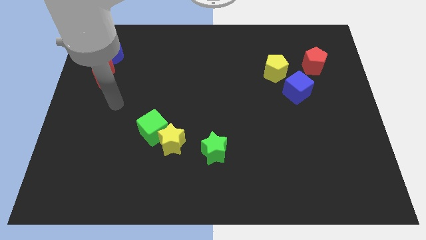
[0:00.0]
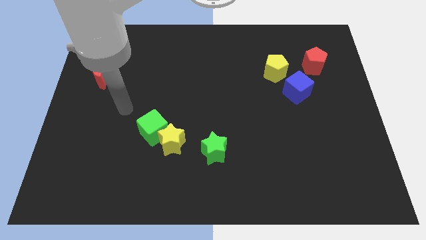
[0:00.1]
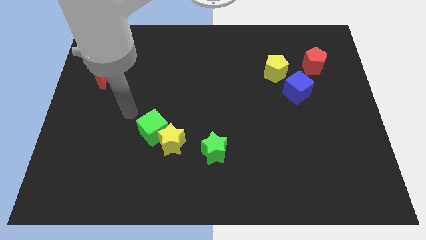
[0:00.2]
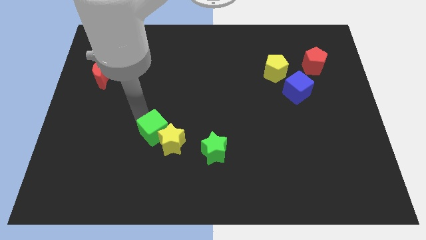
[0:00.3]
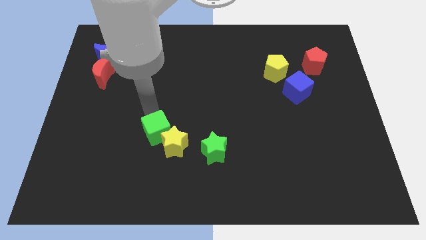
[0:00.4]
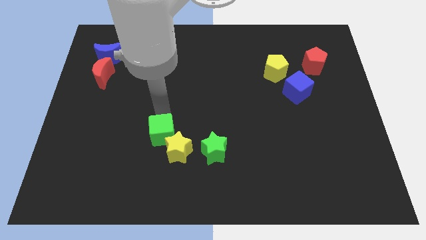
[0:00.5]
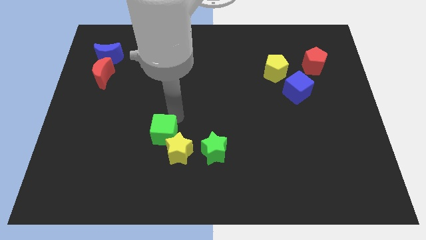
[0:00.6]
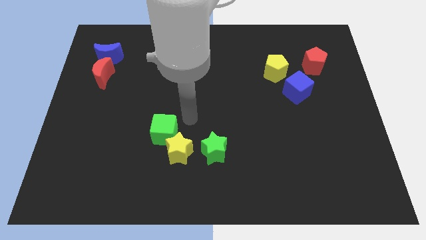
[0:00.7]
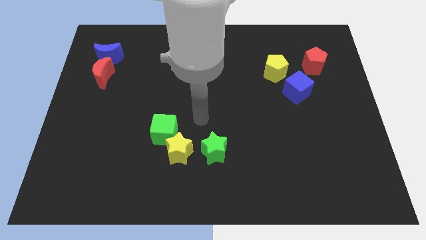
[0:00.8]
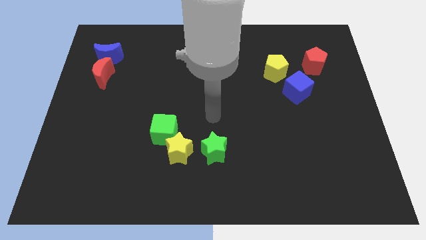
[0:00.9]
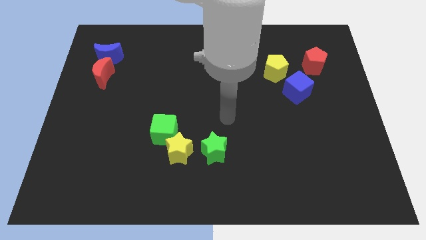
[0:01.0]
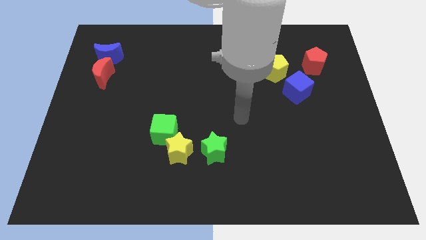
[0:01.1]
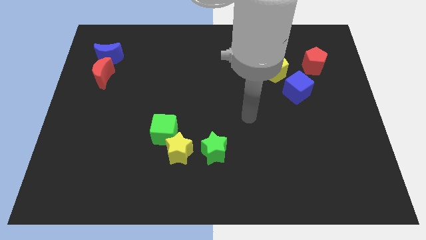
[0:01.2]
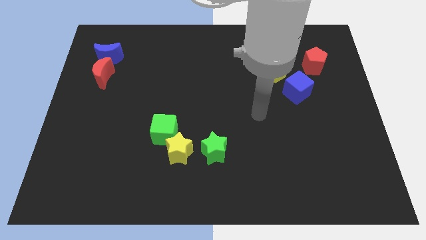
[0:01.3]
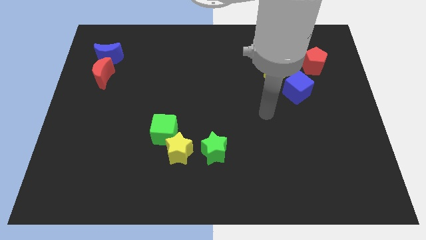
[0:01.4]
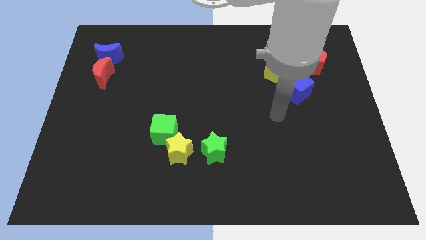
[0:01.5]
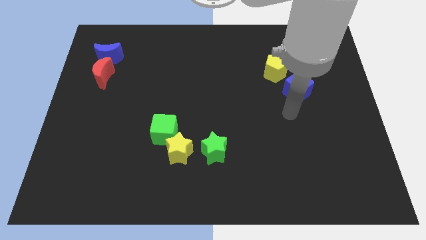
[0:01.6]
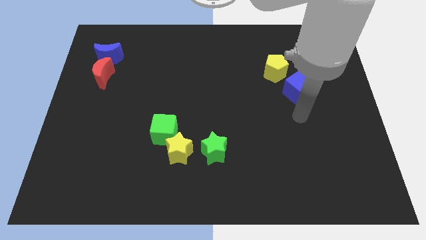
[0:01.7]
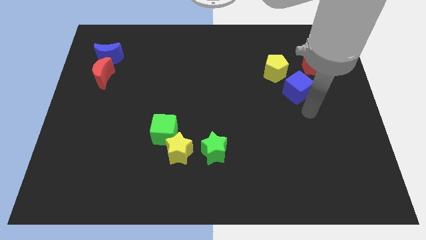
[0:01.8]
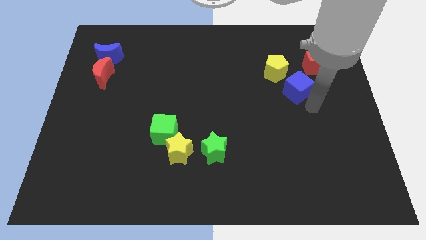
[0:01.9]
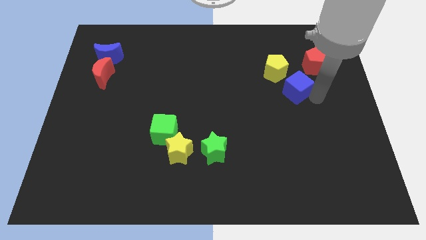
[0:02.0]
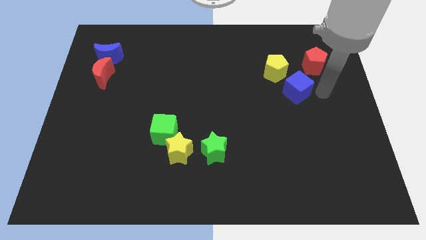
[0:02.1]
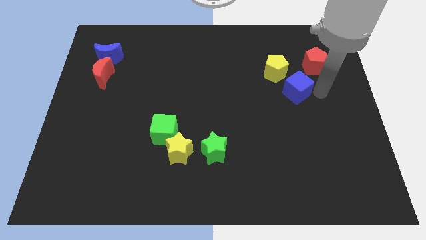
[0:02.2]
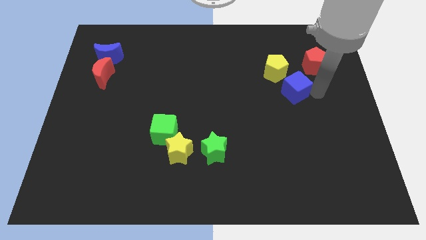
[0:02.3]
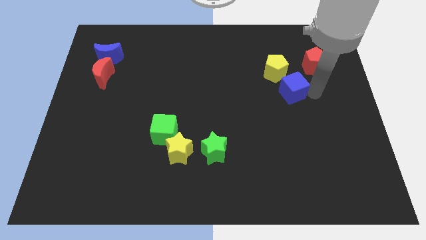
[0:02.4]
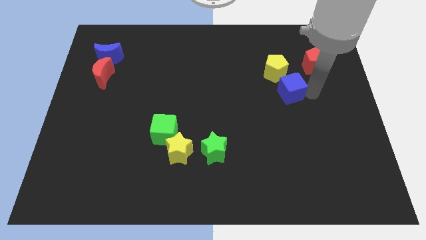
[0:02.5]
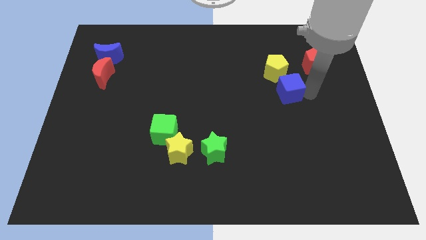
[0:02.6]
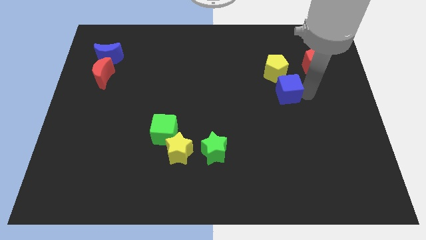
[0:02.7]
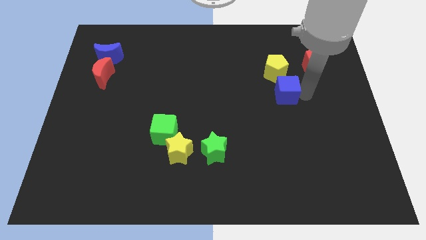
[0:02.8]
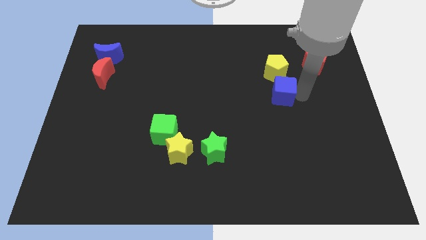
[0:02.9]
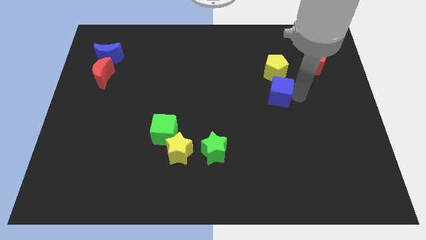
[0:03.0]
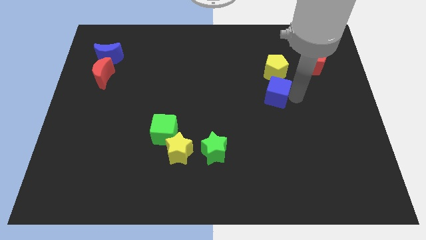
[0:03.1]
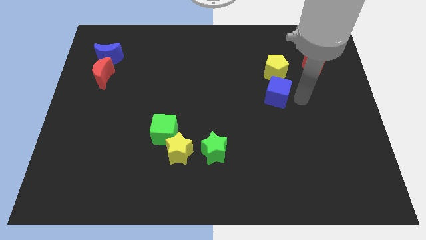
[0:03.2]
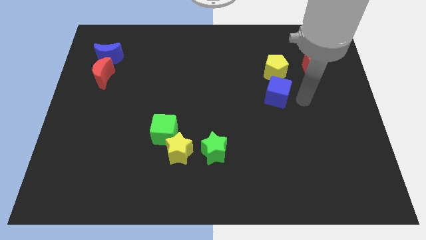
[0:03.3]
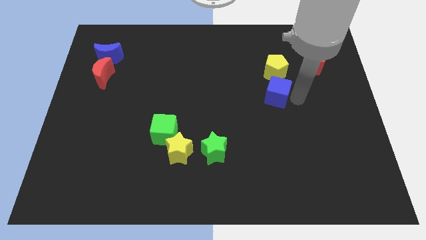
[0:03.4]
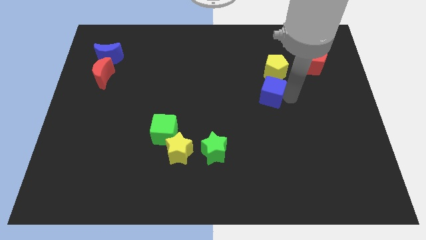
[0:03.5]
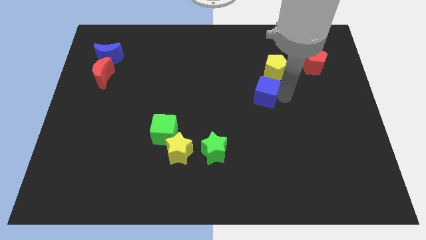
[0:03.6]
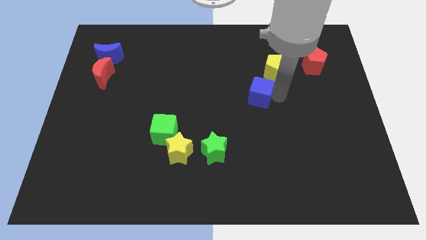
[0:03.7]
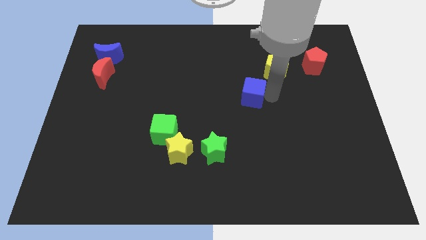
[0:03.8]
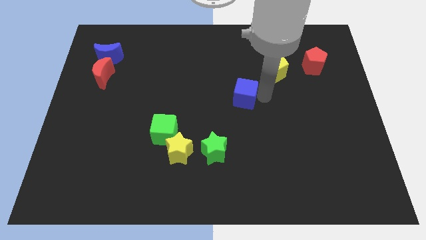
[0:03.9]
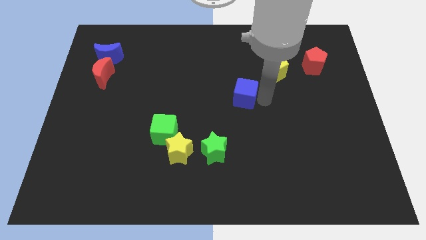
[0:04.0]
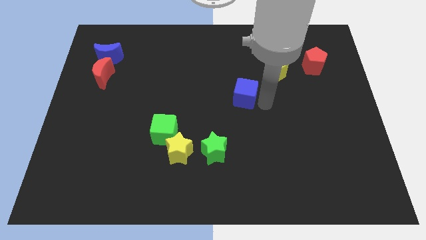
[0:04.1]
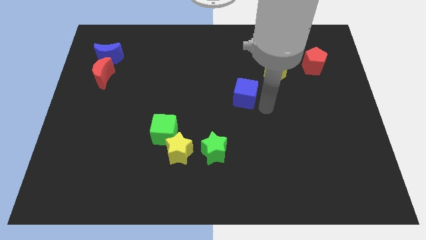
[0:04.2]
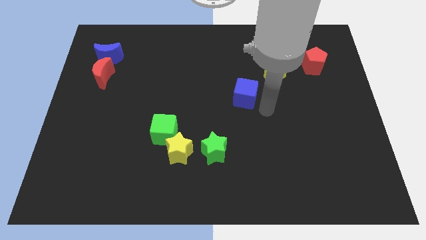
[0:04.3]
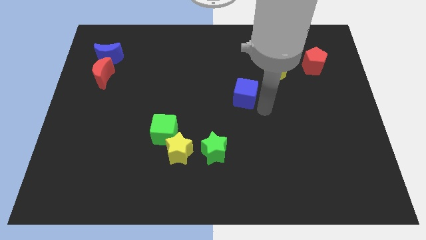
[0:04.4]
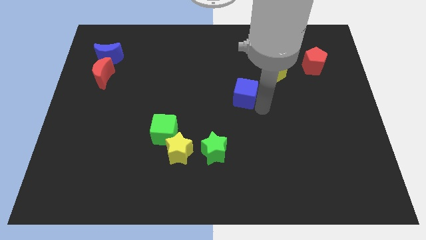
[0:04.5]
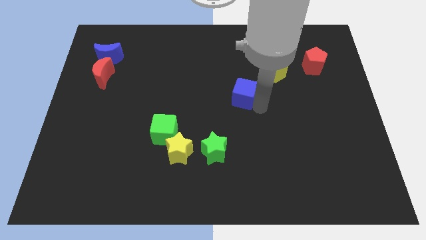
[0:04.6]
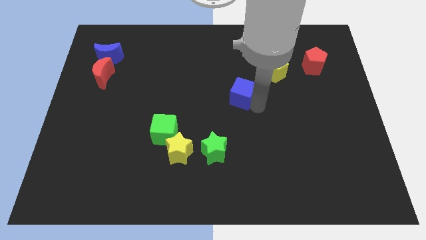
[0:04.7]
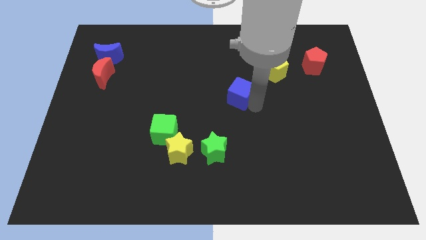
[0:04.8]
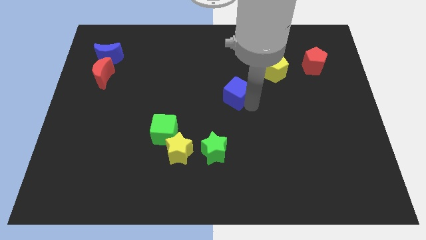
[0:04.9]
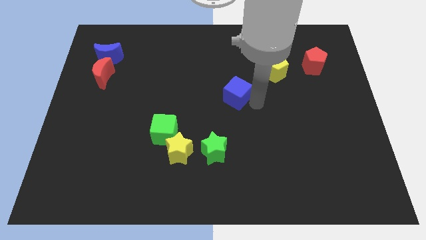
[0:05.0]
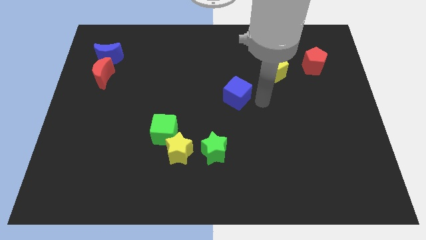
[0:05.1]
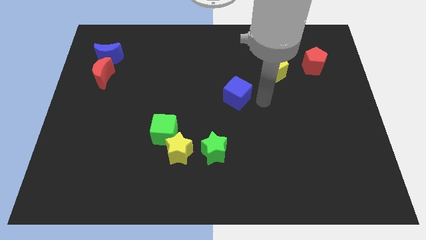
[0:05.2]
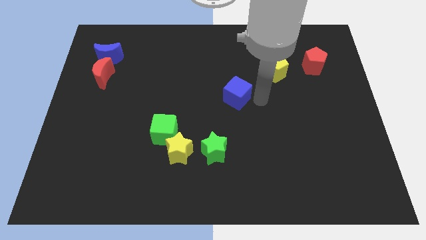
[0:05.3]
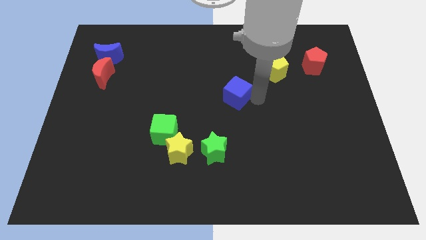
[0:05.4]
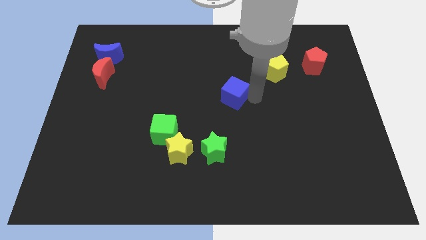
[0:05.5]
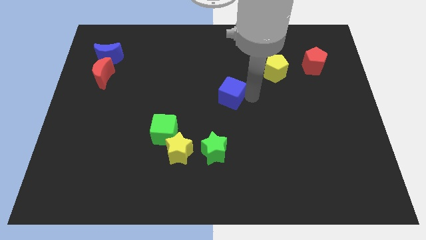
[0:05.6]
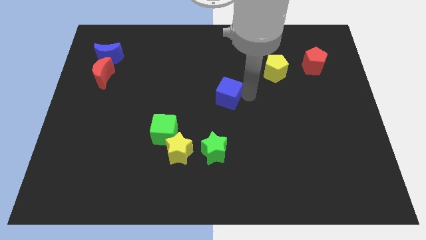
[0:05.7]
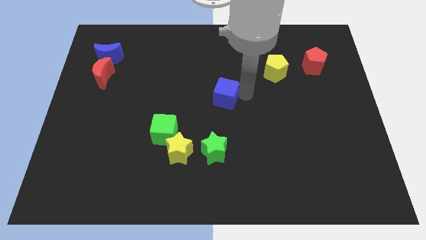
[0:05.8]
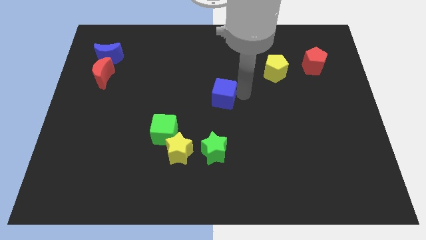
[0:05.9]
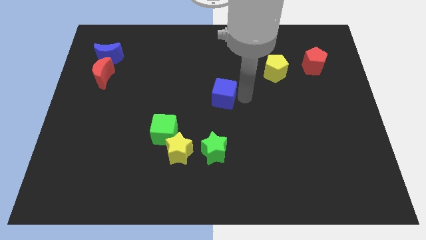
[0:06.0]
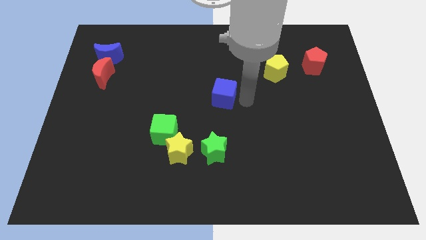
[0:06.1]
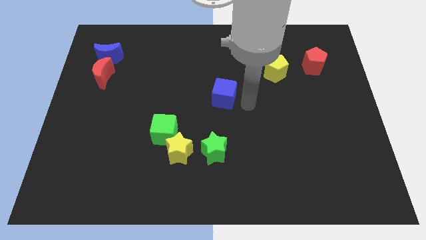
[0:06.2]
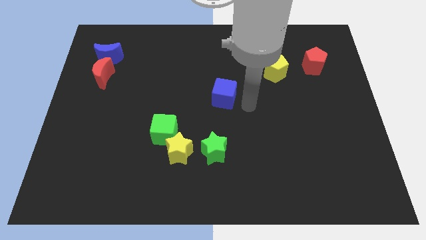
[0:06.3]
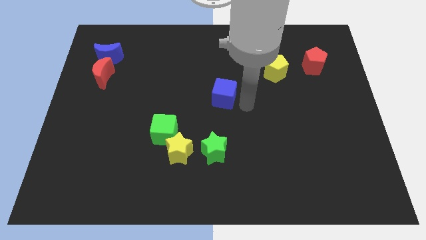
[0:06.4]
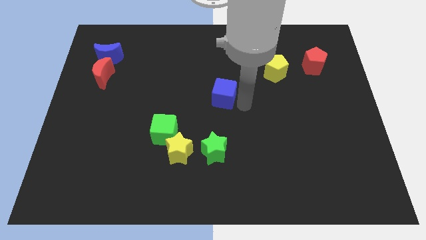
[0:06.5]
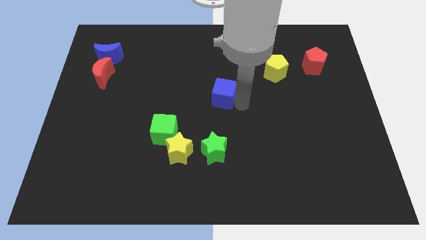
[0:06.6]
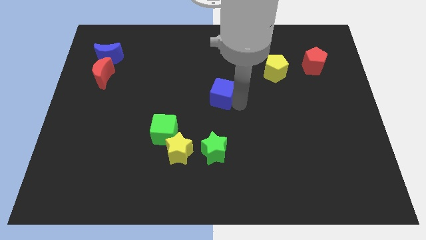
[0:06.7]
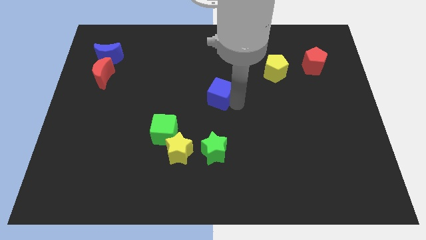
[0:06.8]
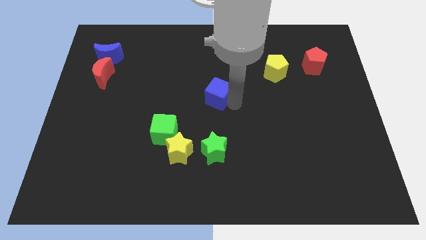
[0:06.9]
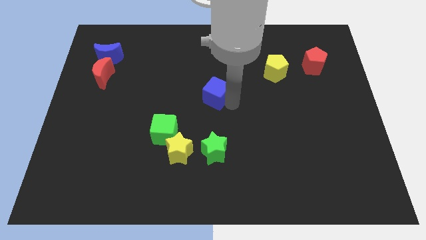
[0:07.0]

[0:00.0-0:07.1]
push the blue cube to the left

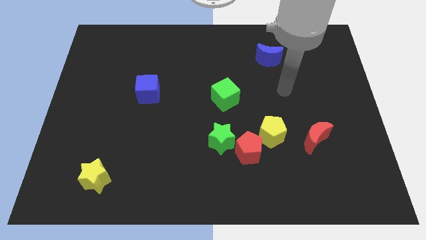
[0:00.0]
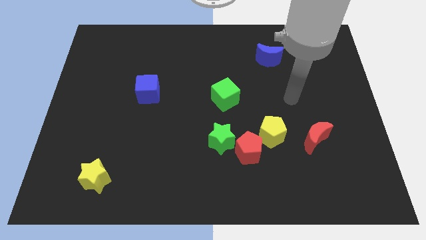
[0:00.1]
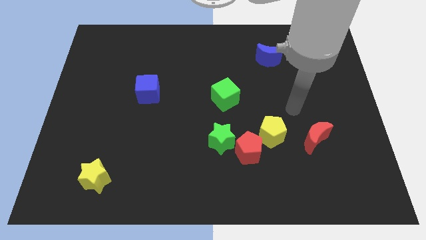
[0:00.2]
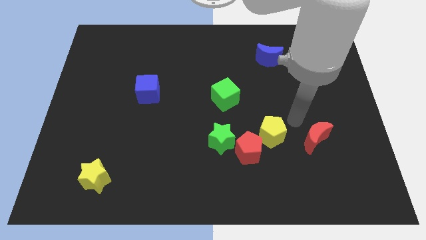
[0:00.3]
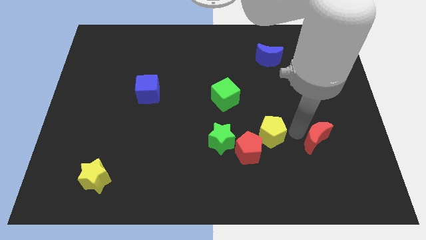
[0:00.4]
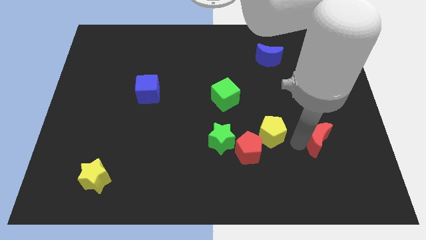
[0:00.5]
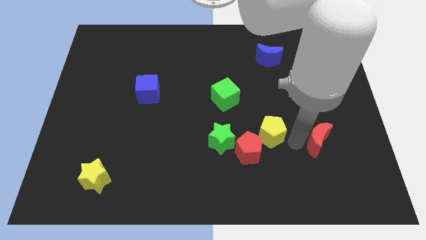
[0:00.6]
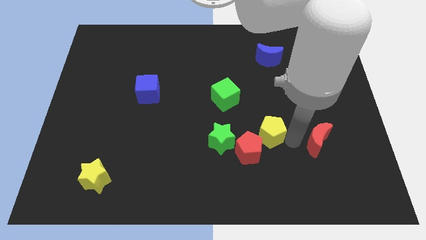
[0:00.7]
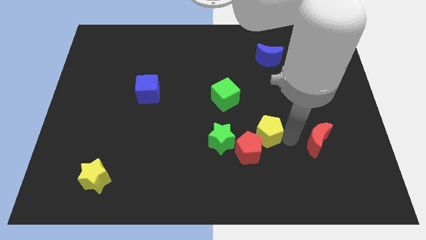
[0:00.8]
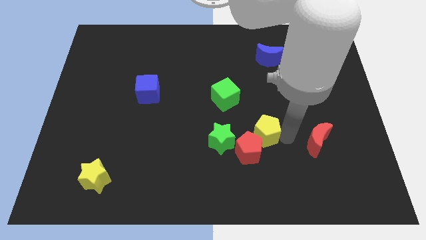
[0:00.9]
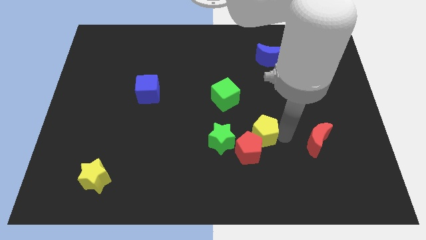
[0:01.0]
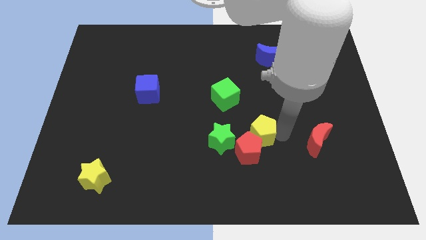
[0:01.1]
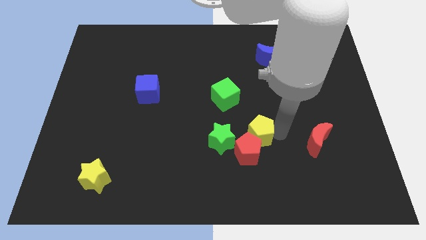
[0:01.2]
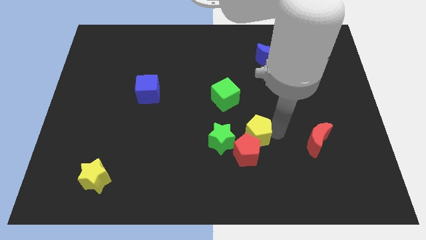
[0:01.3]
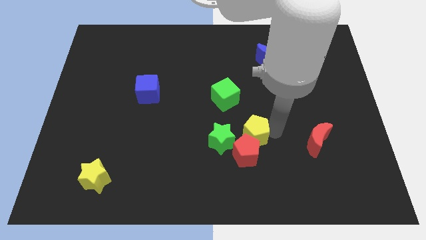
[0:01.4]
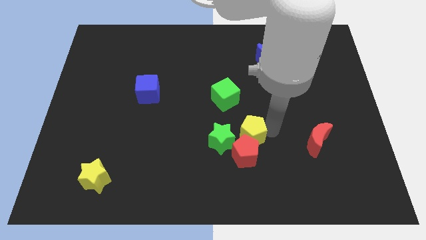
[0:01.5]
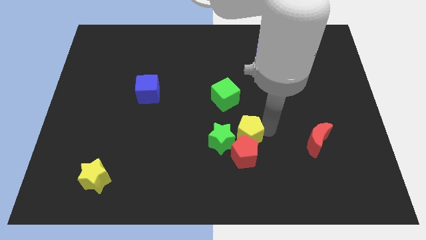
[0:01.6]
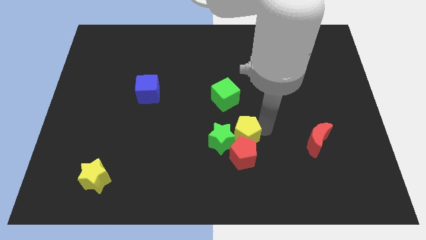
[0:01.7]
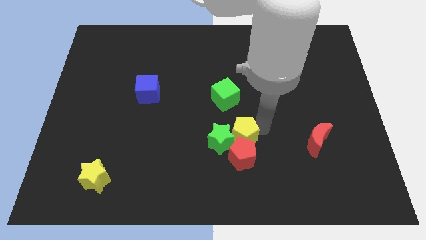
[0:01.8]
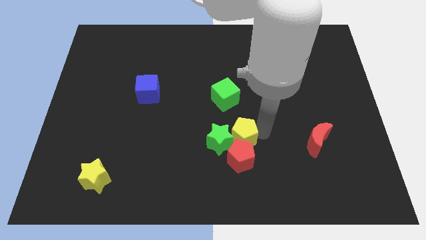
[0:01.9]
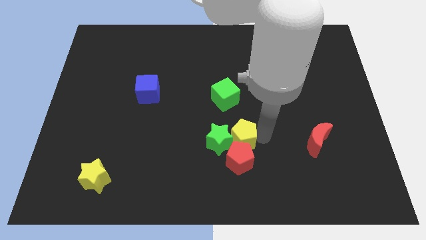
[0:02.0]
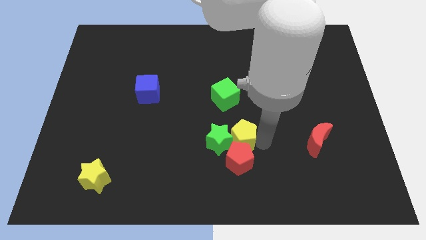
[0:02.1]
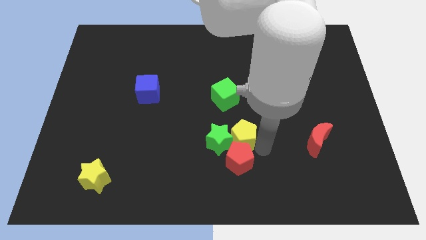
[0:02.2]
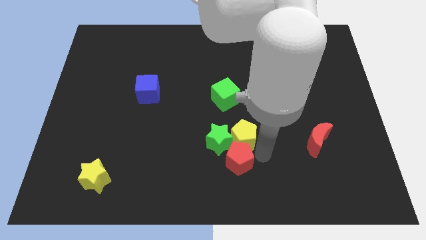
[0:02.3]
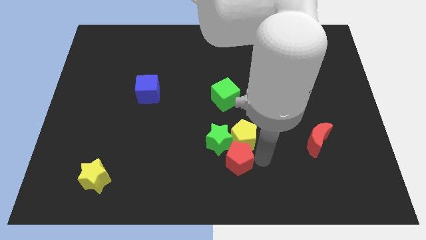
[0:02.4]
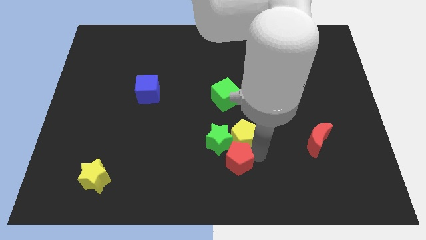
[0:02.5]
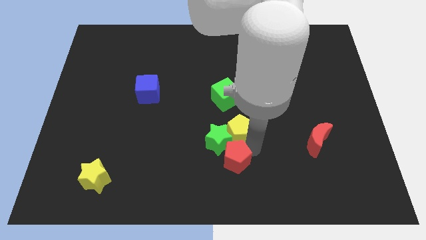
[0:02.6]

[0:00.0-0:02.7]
move the yellow pentagon left somewhat
